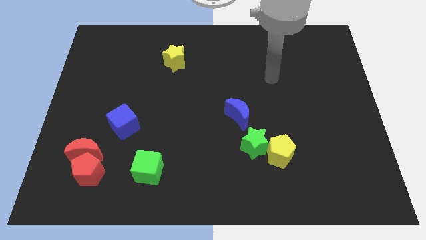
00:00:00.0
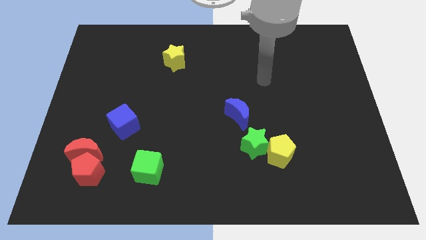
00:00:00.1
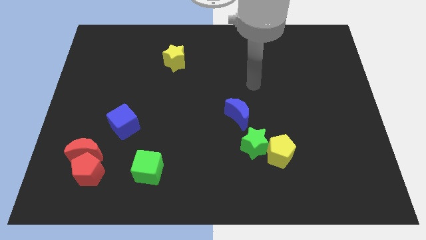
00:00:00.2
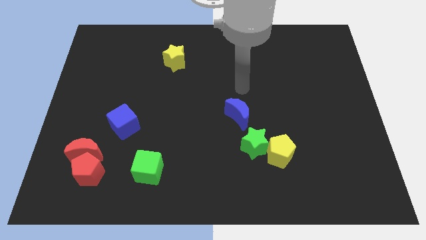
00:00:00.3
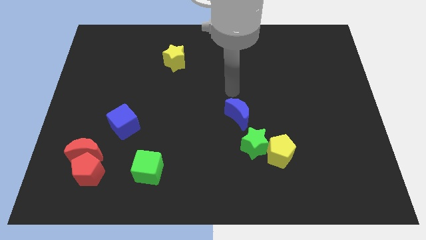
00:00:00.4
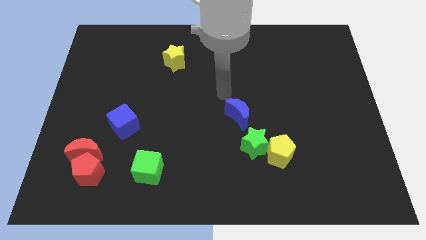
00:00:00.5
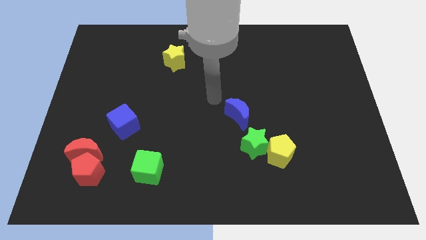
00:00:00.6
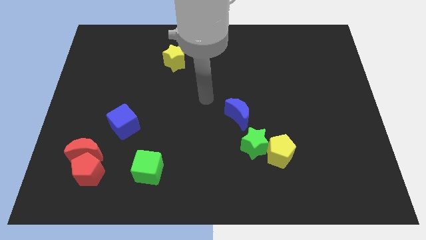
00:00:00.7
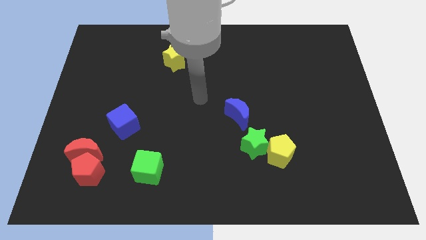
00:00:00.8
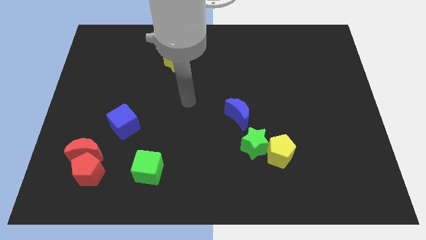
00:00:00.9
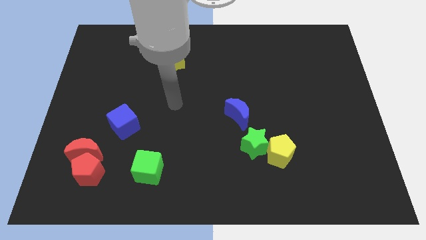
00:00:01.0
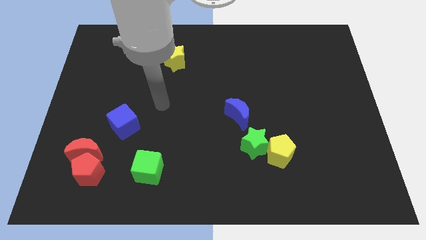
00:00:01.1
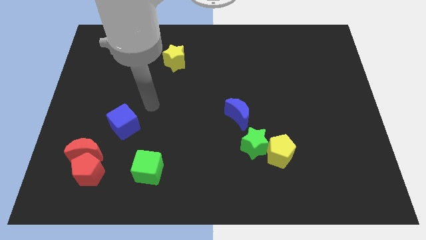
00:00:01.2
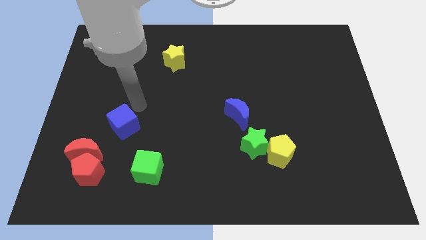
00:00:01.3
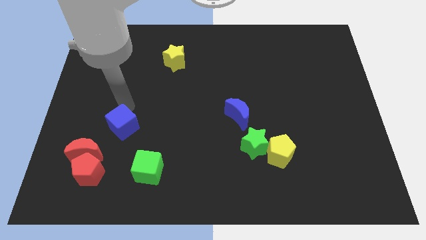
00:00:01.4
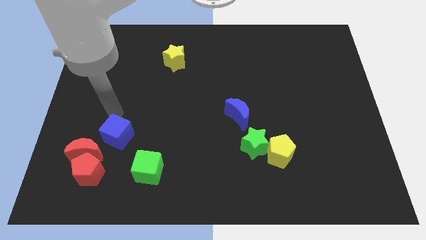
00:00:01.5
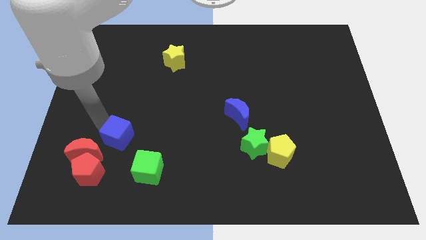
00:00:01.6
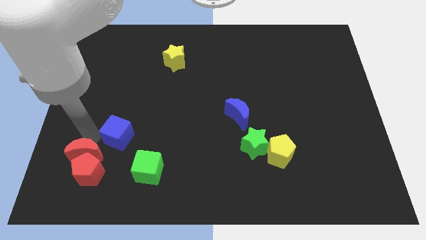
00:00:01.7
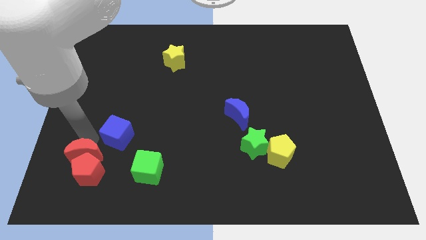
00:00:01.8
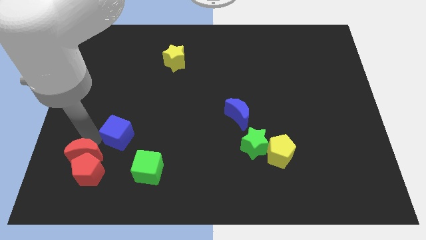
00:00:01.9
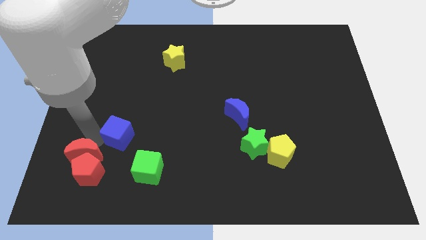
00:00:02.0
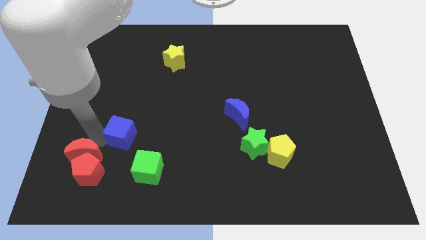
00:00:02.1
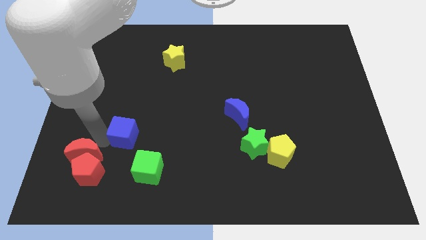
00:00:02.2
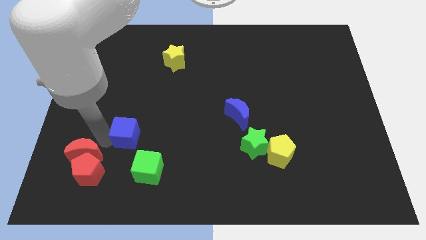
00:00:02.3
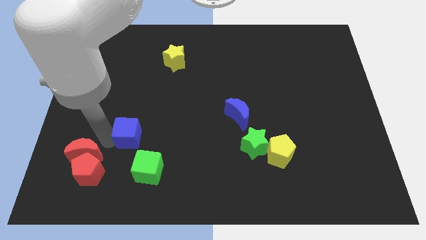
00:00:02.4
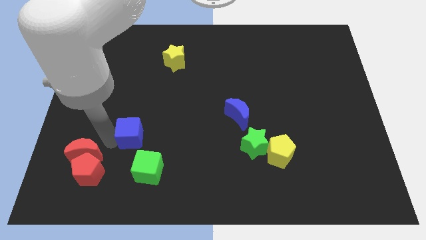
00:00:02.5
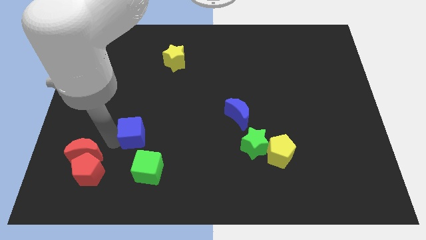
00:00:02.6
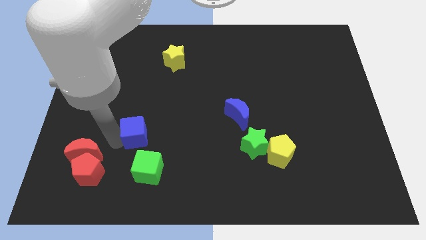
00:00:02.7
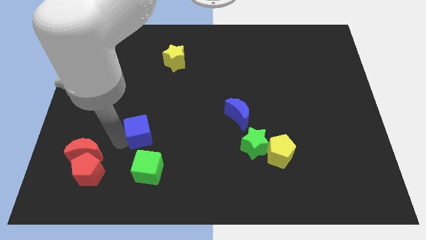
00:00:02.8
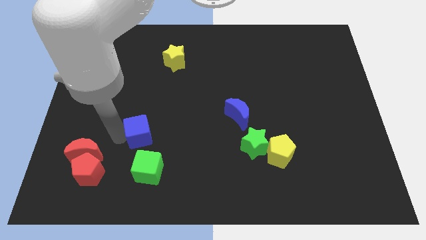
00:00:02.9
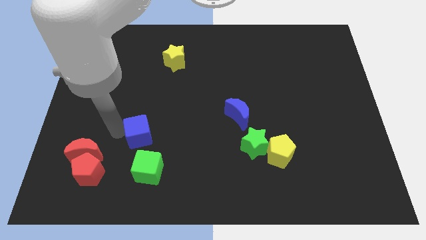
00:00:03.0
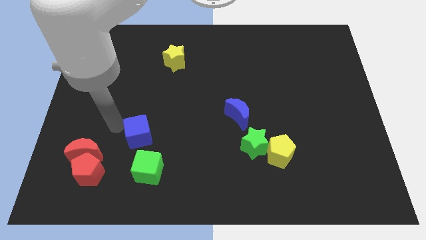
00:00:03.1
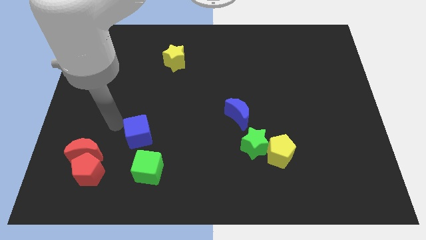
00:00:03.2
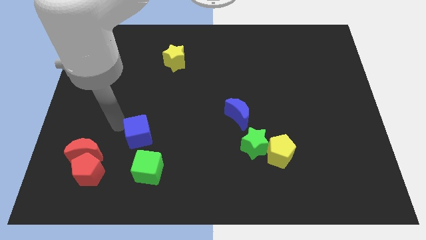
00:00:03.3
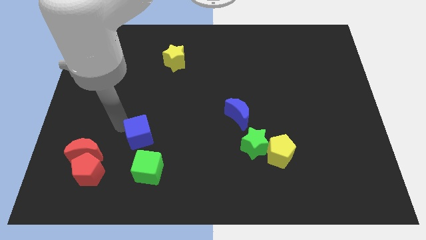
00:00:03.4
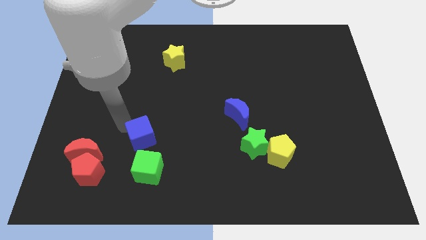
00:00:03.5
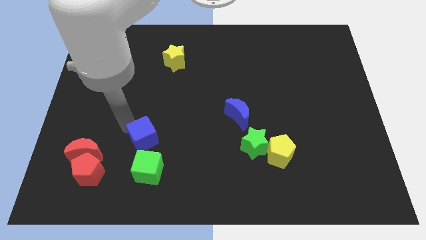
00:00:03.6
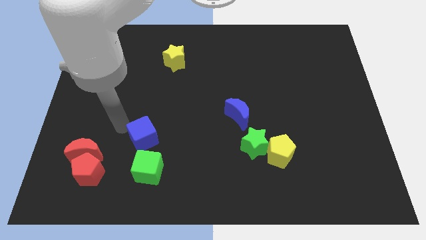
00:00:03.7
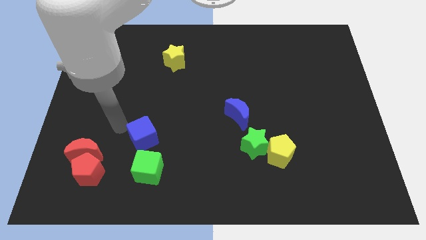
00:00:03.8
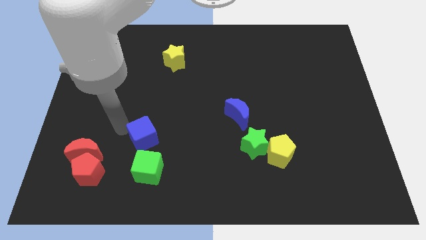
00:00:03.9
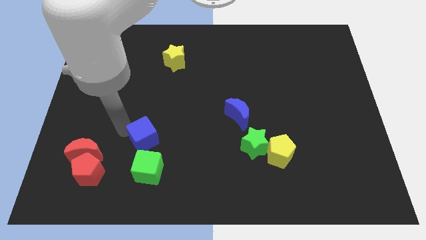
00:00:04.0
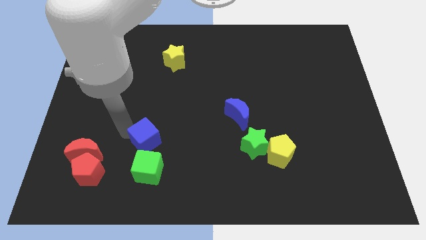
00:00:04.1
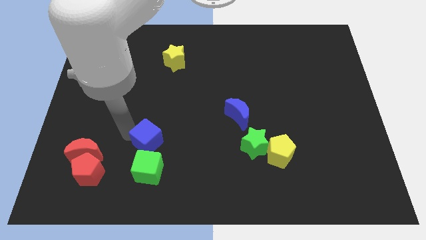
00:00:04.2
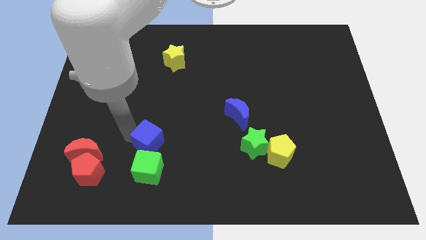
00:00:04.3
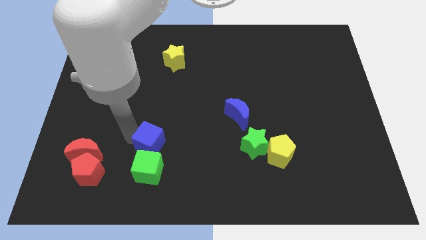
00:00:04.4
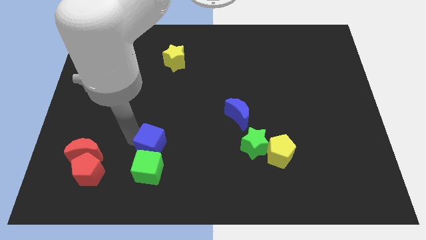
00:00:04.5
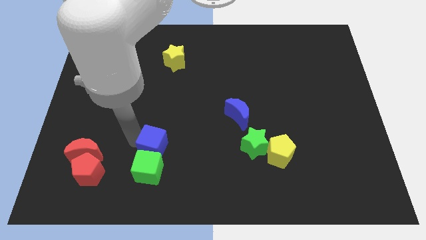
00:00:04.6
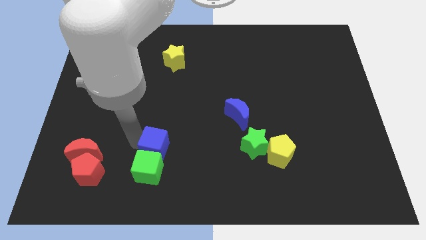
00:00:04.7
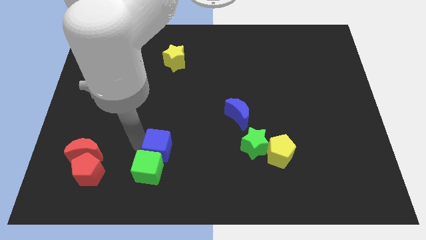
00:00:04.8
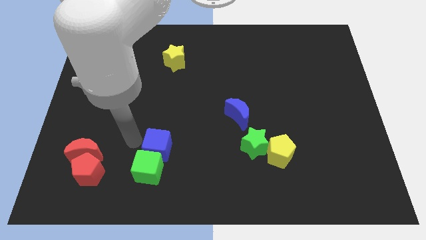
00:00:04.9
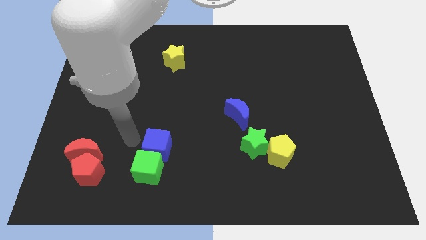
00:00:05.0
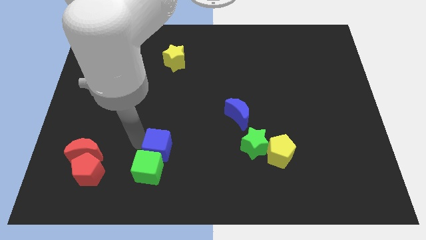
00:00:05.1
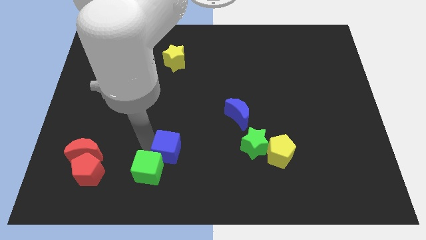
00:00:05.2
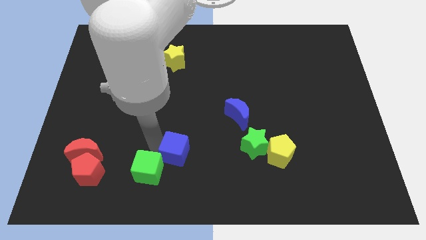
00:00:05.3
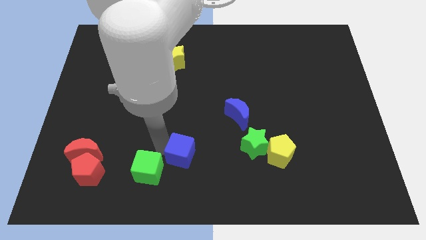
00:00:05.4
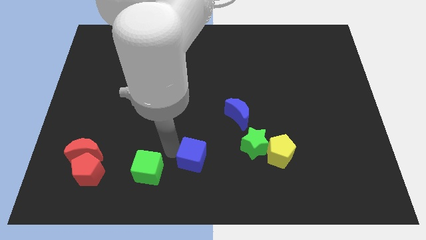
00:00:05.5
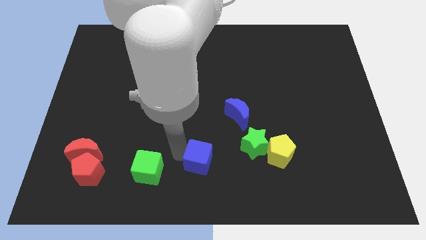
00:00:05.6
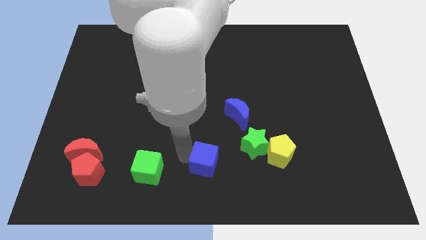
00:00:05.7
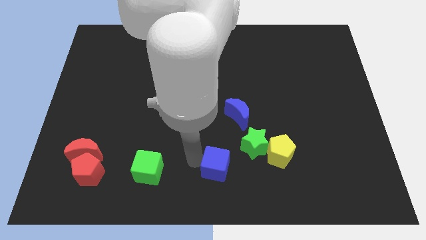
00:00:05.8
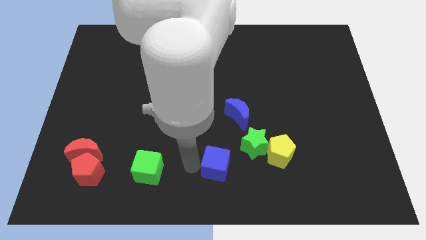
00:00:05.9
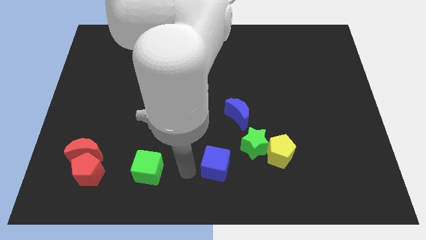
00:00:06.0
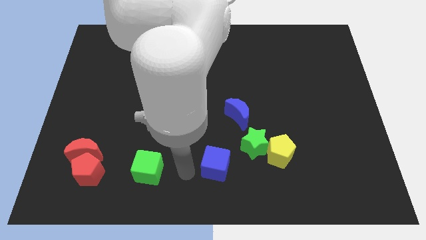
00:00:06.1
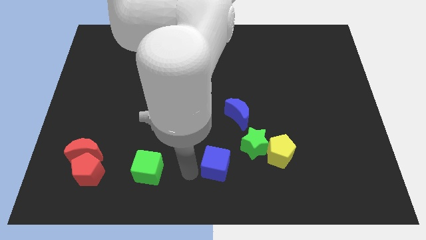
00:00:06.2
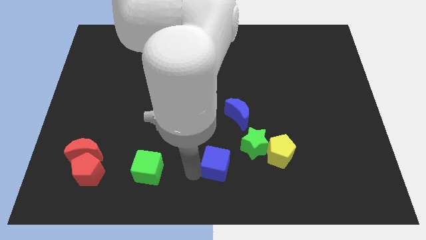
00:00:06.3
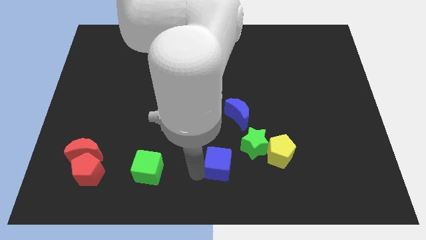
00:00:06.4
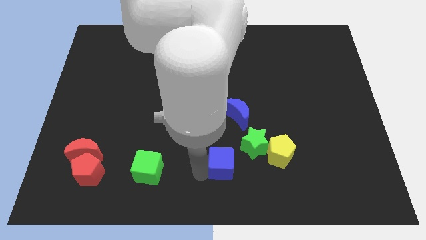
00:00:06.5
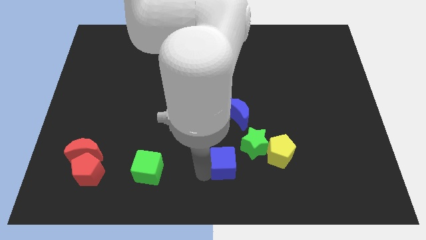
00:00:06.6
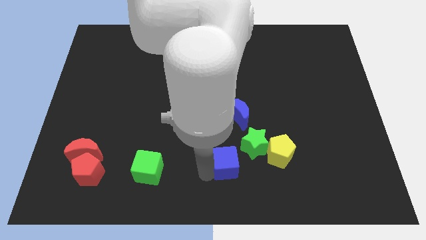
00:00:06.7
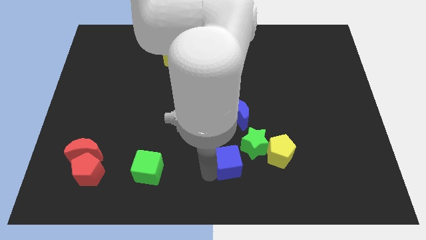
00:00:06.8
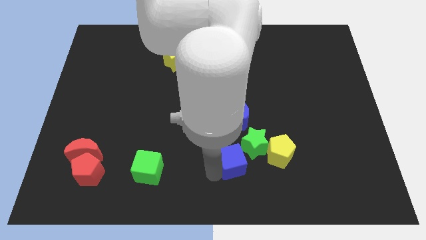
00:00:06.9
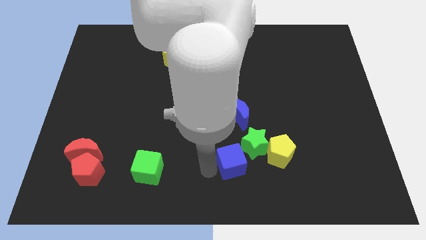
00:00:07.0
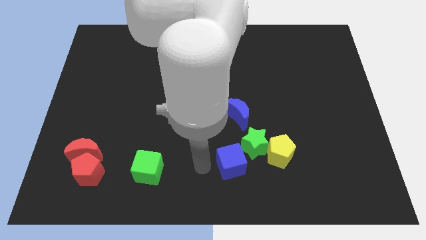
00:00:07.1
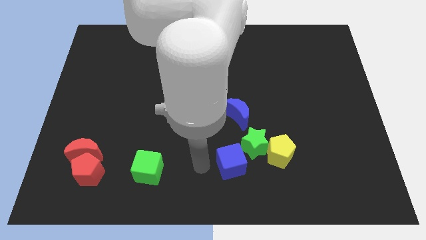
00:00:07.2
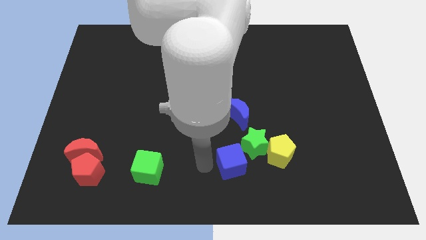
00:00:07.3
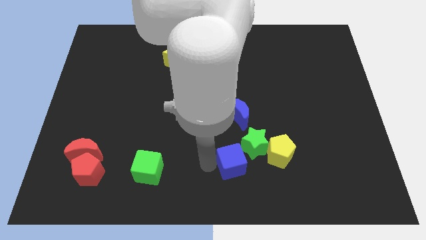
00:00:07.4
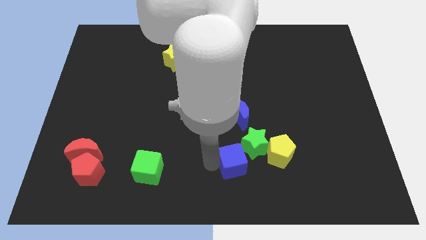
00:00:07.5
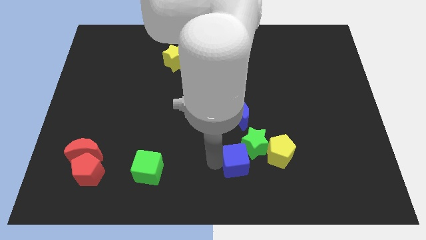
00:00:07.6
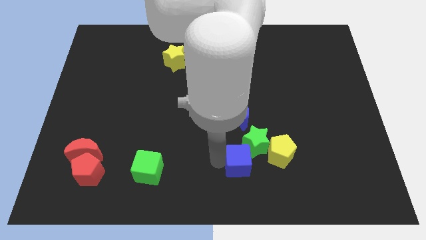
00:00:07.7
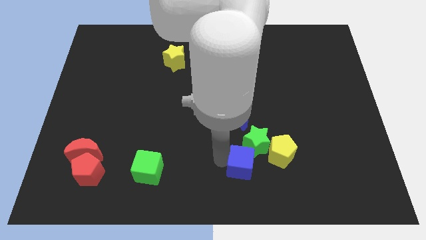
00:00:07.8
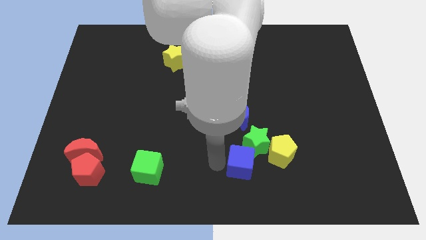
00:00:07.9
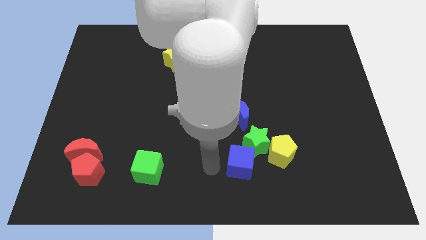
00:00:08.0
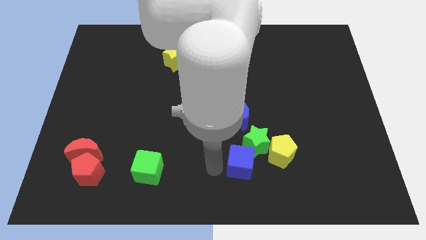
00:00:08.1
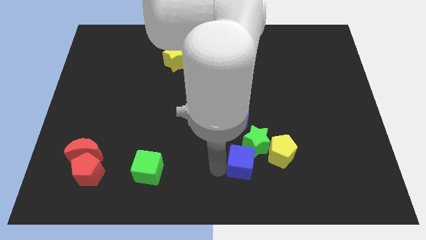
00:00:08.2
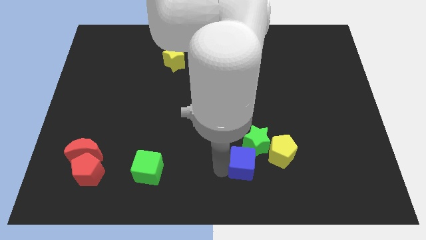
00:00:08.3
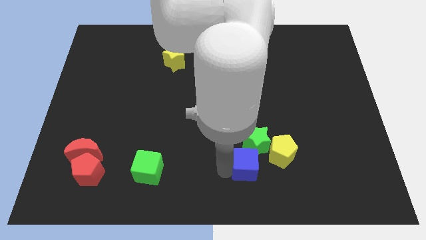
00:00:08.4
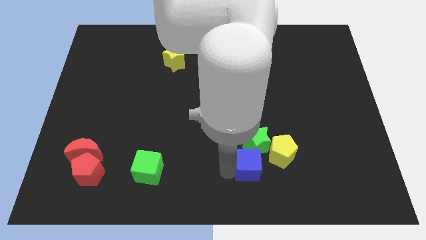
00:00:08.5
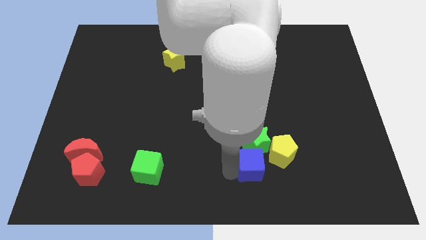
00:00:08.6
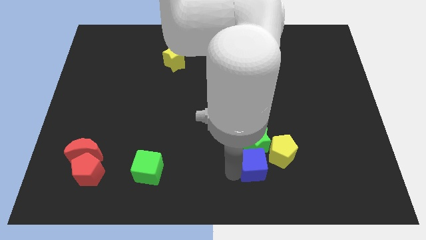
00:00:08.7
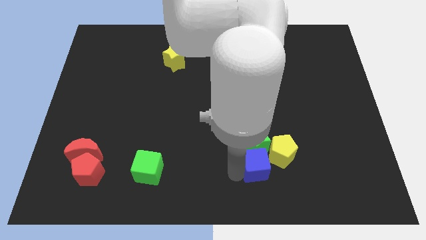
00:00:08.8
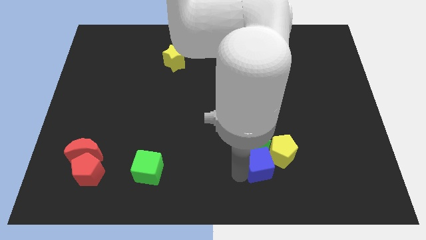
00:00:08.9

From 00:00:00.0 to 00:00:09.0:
move the blue cube close to the yellow pentagon
